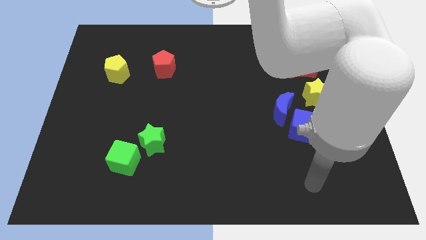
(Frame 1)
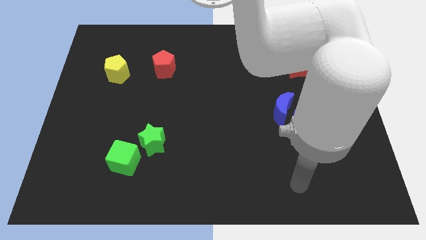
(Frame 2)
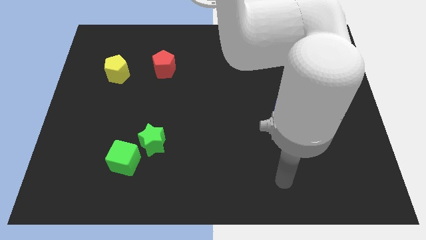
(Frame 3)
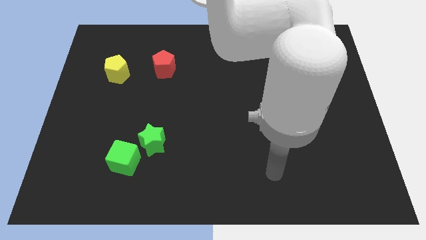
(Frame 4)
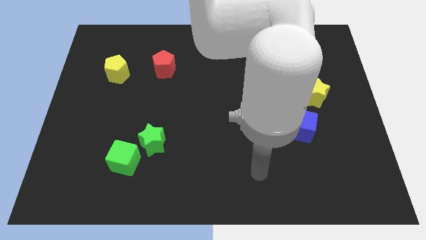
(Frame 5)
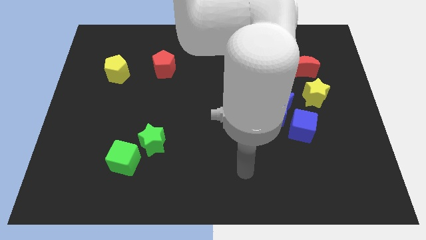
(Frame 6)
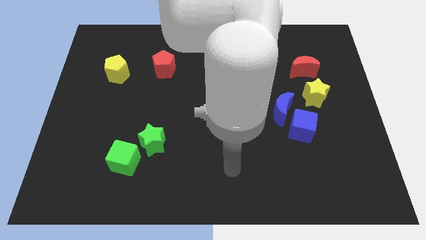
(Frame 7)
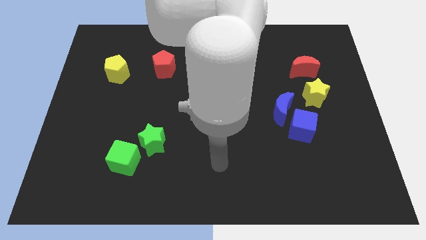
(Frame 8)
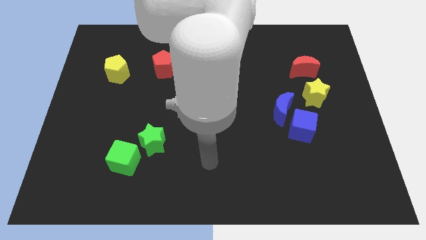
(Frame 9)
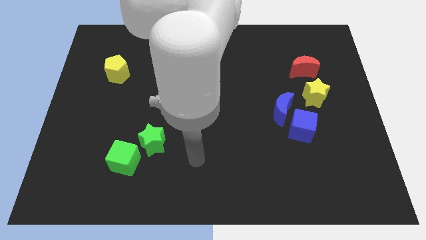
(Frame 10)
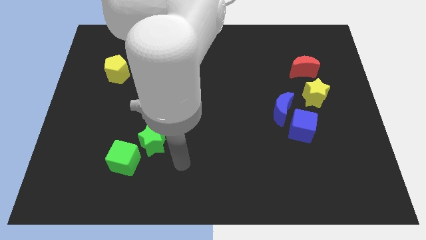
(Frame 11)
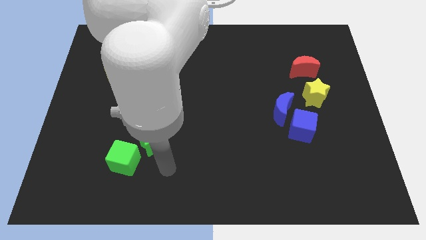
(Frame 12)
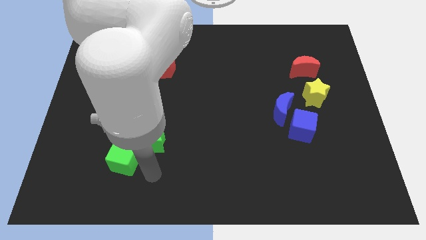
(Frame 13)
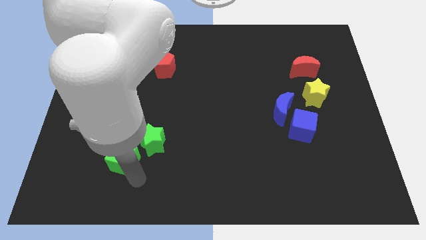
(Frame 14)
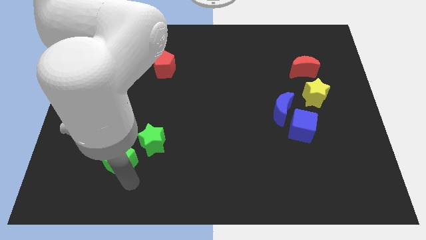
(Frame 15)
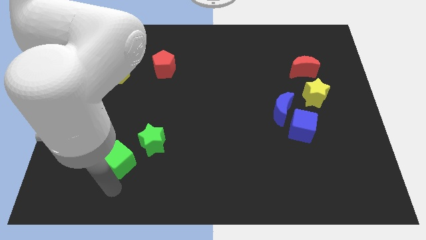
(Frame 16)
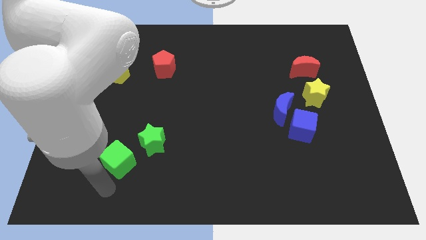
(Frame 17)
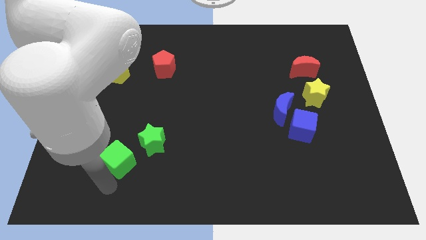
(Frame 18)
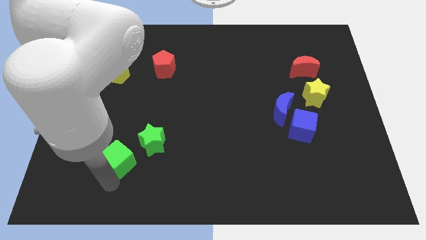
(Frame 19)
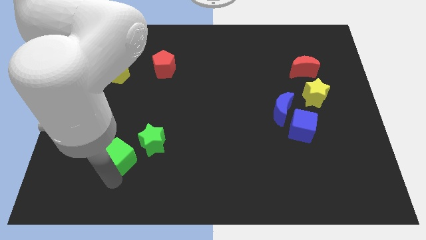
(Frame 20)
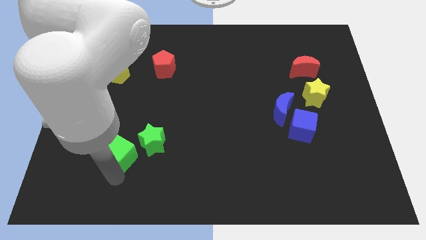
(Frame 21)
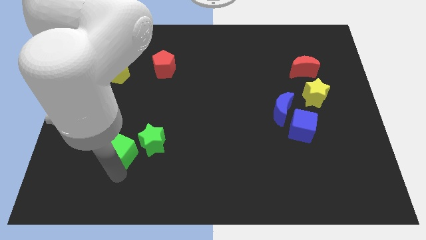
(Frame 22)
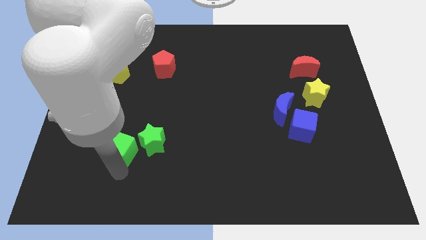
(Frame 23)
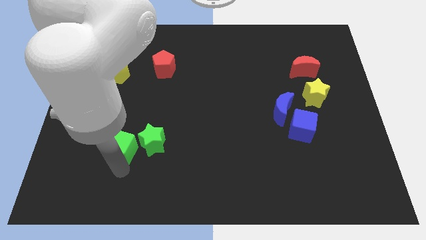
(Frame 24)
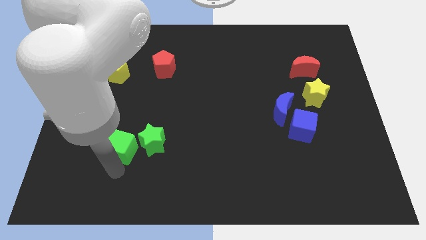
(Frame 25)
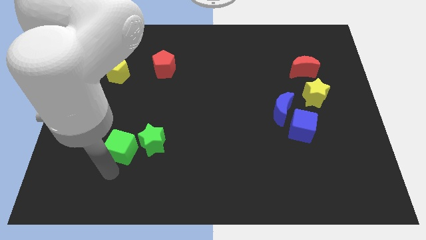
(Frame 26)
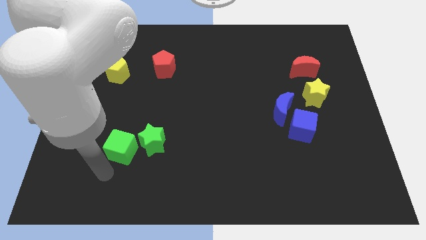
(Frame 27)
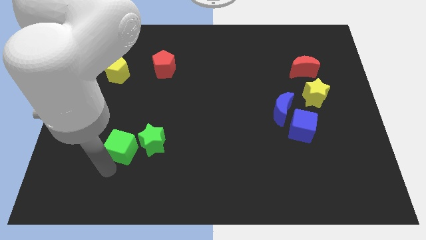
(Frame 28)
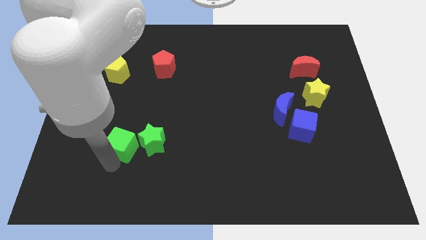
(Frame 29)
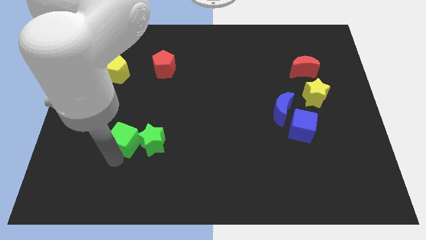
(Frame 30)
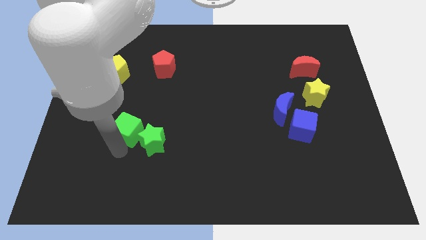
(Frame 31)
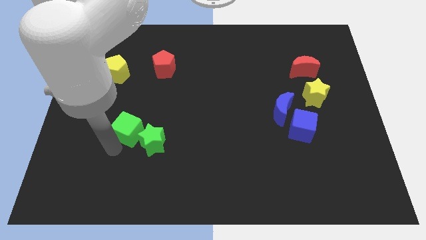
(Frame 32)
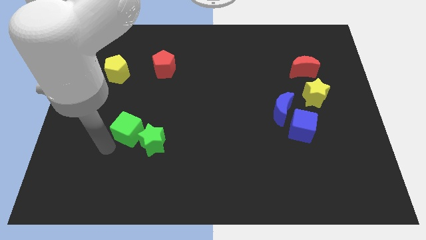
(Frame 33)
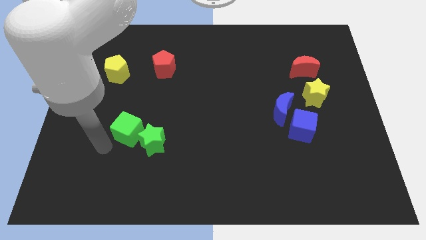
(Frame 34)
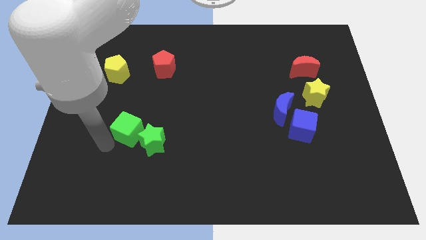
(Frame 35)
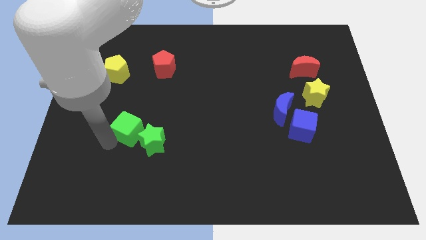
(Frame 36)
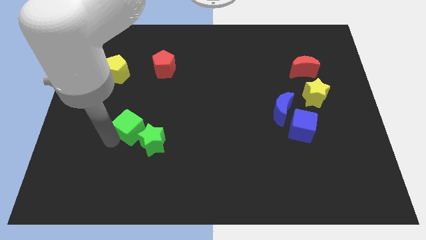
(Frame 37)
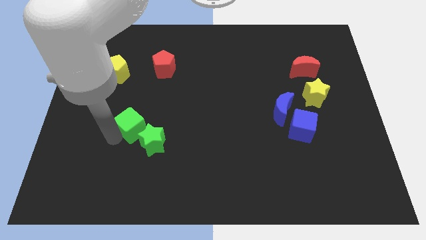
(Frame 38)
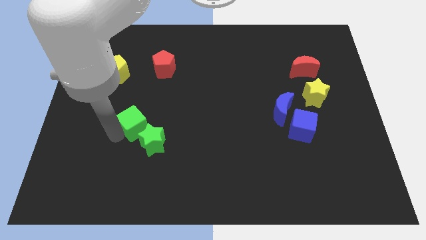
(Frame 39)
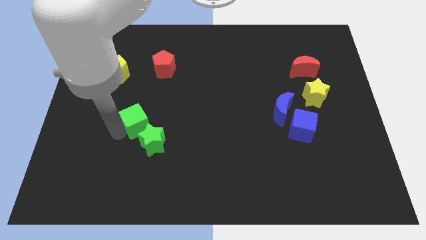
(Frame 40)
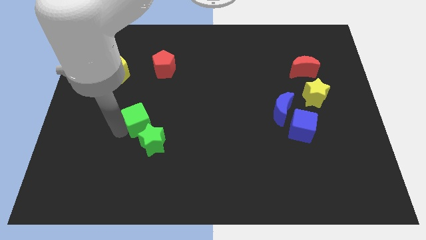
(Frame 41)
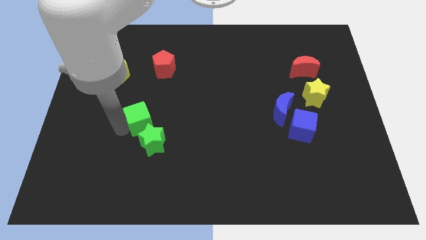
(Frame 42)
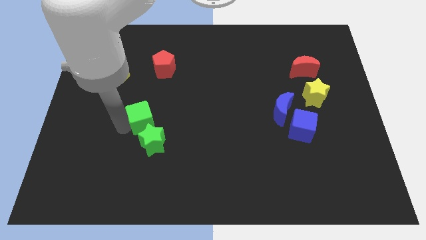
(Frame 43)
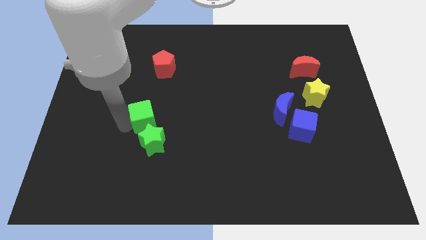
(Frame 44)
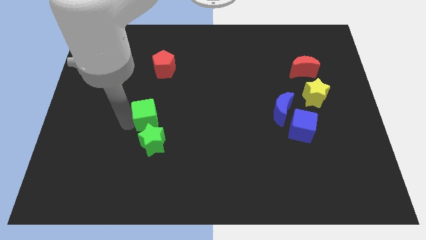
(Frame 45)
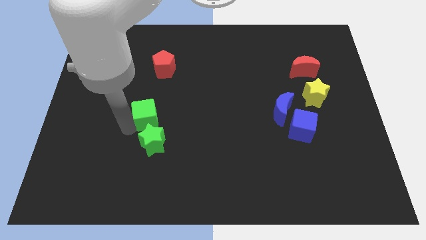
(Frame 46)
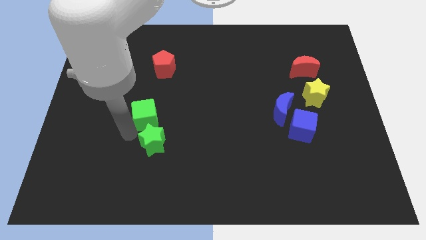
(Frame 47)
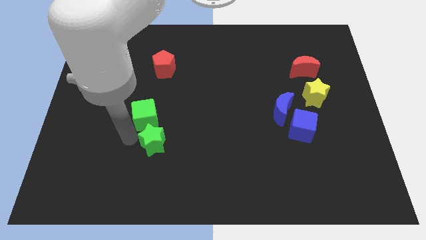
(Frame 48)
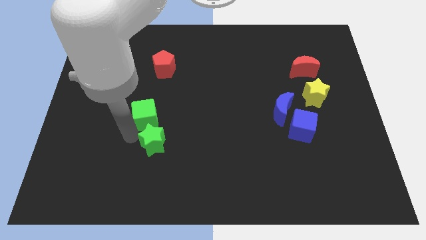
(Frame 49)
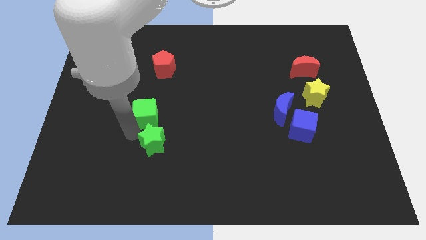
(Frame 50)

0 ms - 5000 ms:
put the green cube below the red pentagon

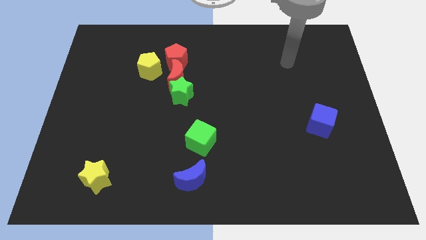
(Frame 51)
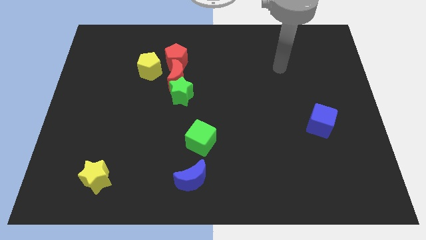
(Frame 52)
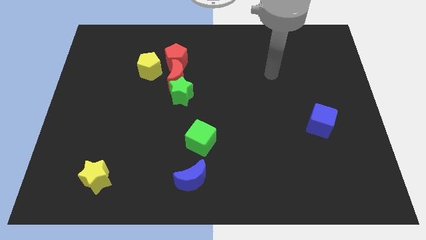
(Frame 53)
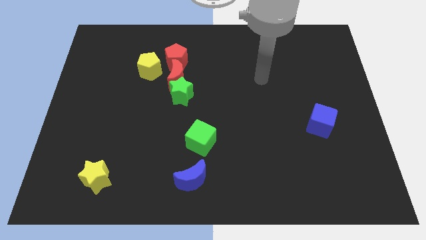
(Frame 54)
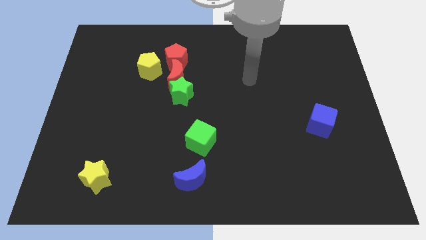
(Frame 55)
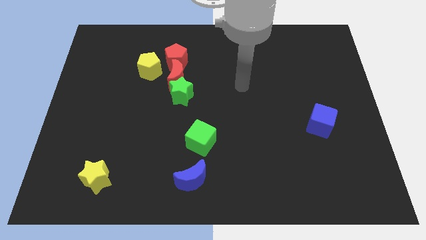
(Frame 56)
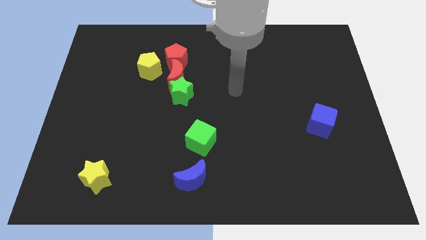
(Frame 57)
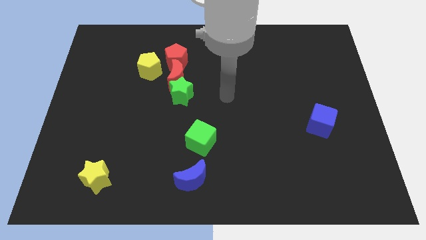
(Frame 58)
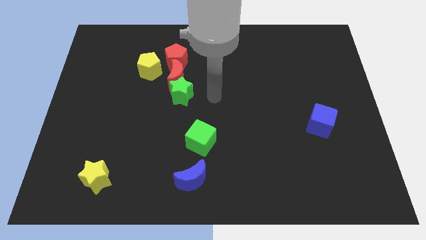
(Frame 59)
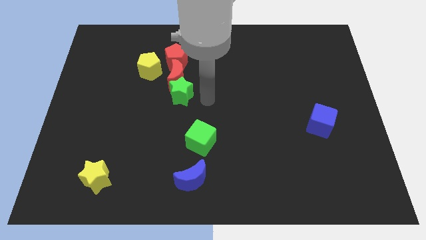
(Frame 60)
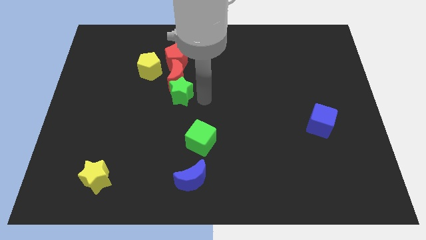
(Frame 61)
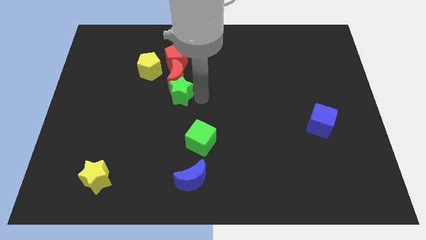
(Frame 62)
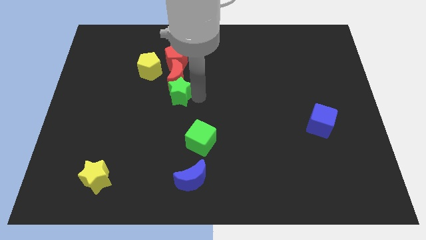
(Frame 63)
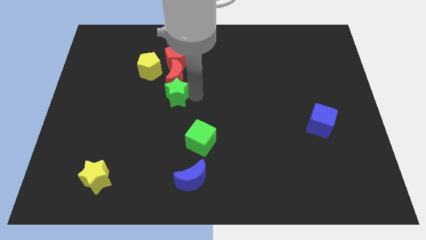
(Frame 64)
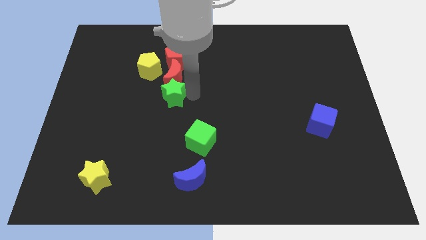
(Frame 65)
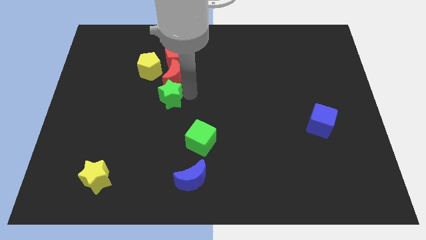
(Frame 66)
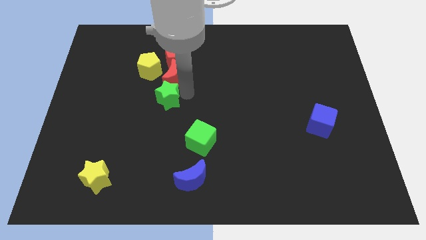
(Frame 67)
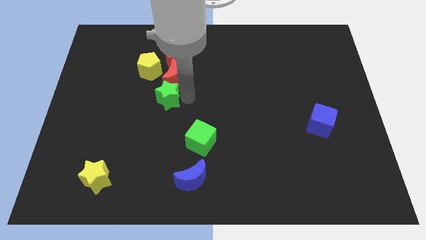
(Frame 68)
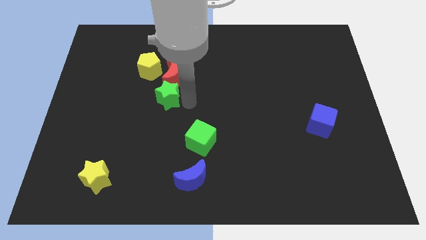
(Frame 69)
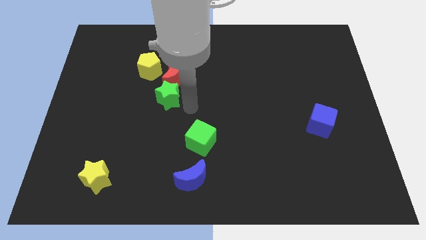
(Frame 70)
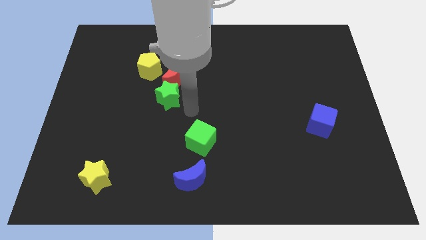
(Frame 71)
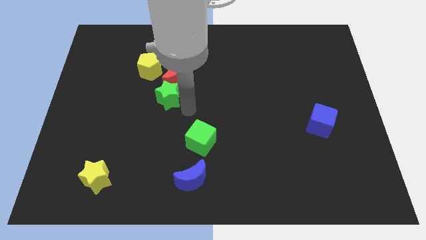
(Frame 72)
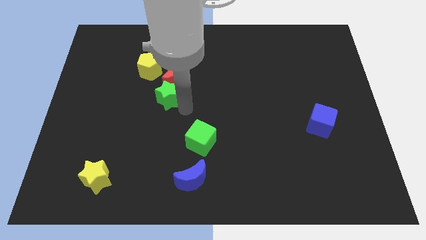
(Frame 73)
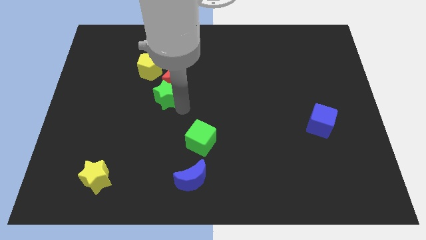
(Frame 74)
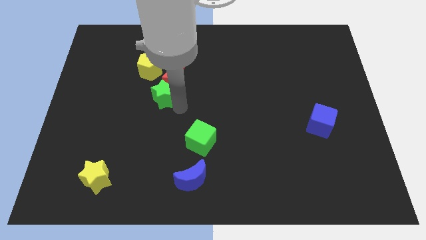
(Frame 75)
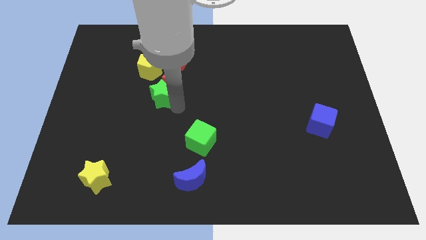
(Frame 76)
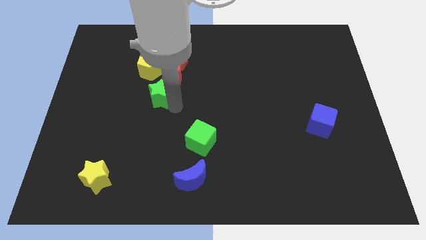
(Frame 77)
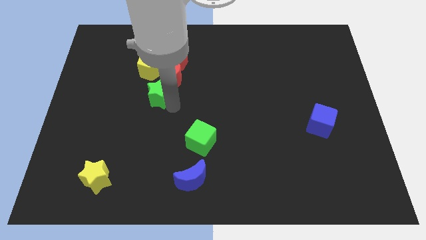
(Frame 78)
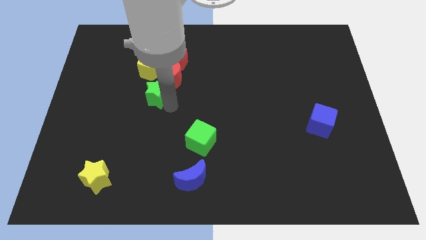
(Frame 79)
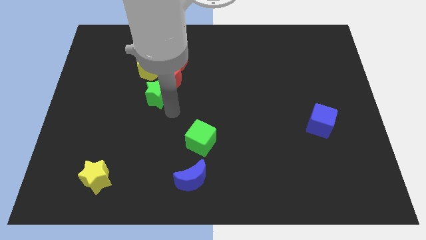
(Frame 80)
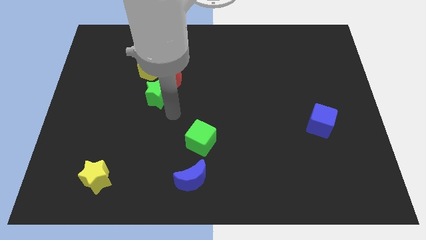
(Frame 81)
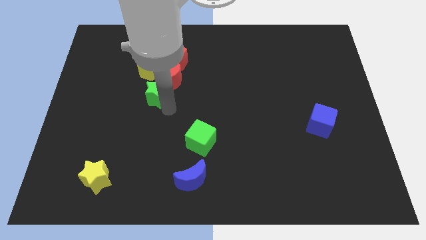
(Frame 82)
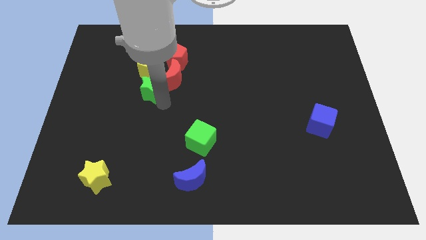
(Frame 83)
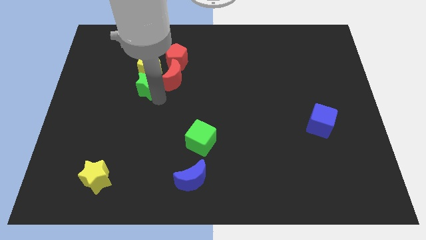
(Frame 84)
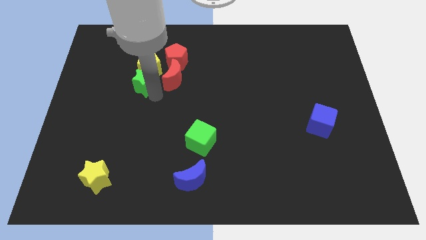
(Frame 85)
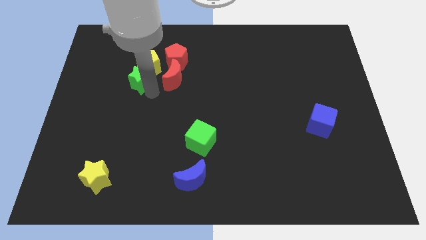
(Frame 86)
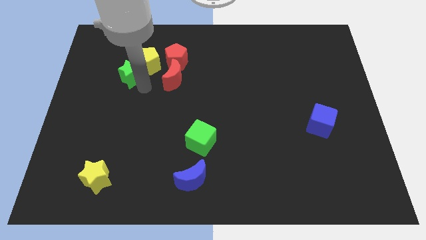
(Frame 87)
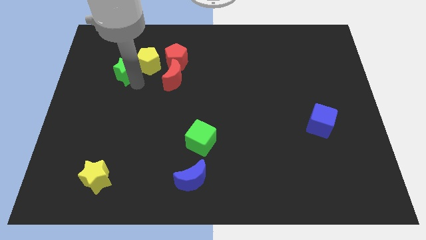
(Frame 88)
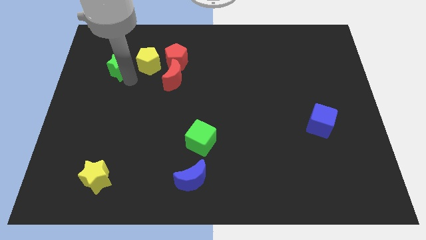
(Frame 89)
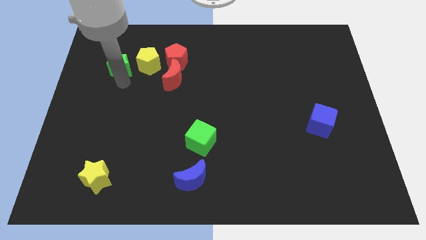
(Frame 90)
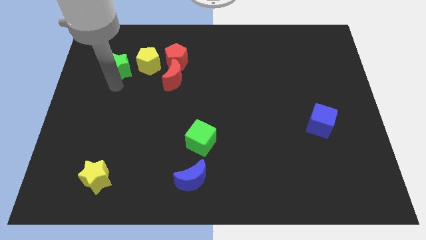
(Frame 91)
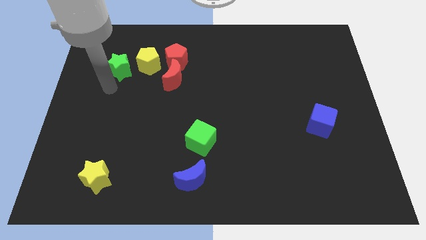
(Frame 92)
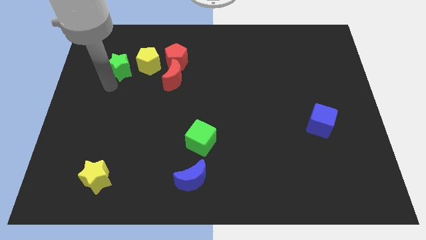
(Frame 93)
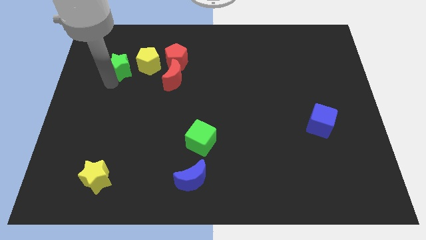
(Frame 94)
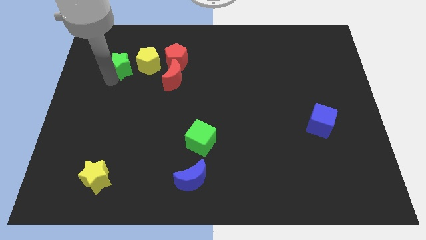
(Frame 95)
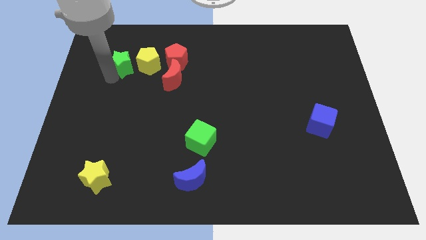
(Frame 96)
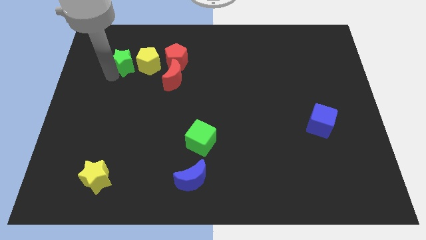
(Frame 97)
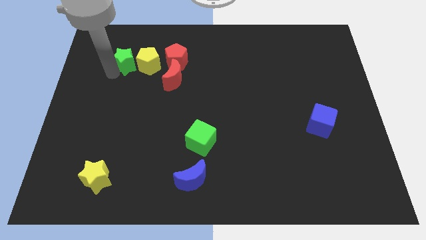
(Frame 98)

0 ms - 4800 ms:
push the green star to the top left side of the yellow pentagon
